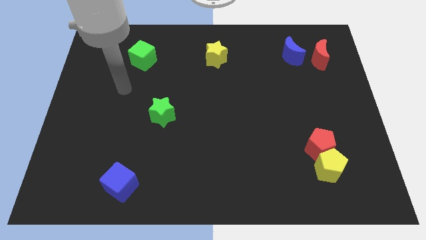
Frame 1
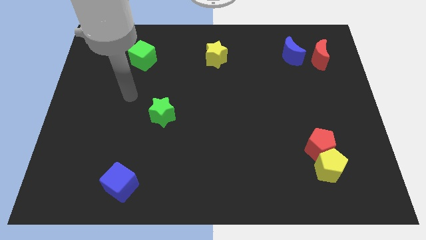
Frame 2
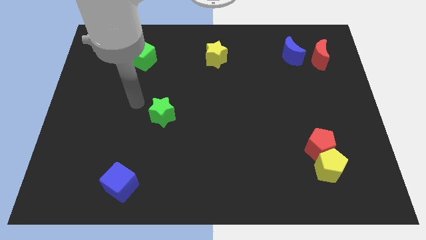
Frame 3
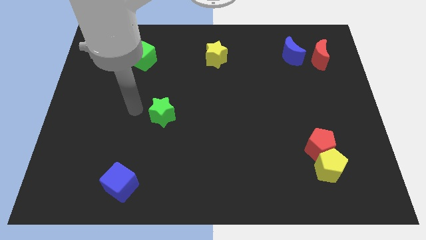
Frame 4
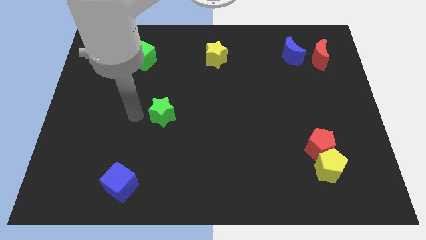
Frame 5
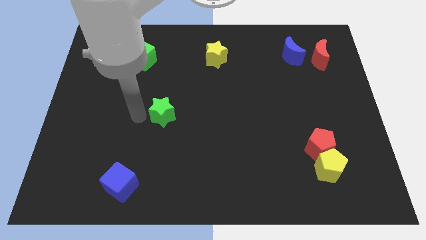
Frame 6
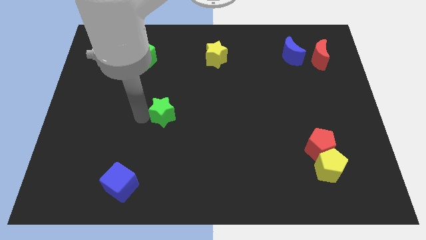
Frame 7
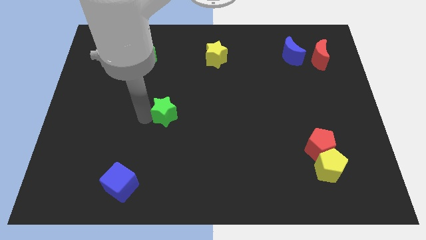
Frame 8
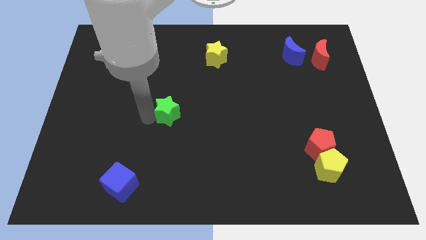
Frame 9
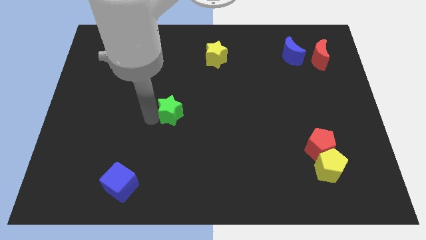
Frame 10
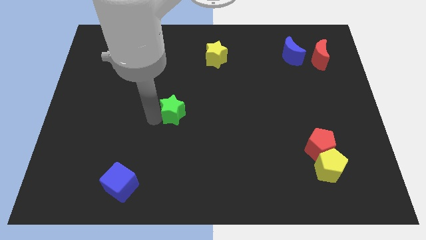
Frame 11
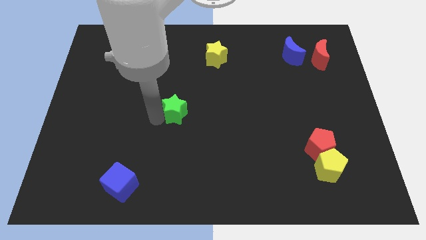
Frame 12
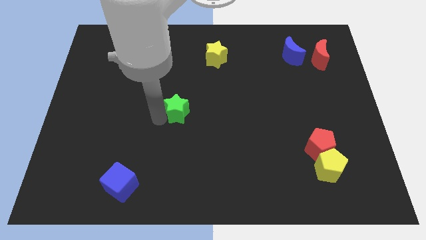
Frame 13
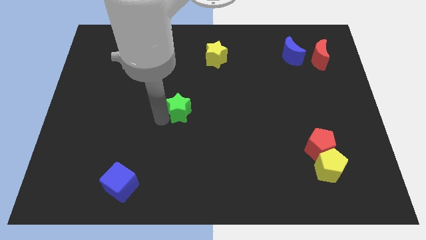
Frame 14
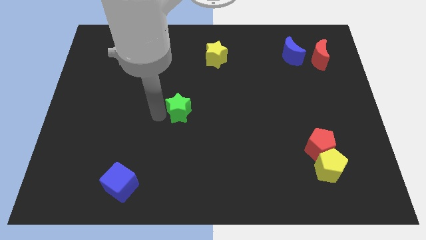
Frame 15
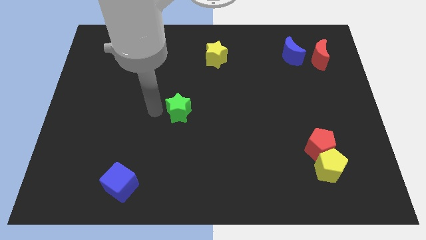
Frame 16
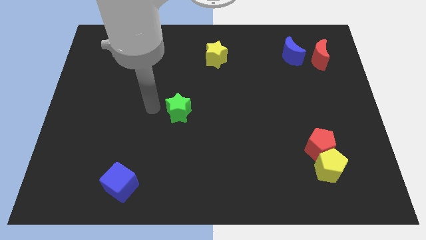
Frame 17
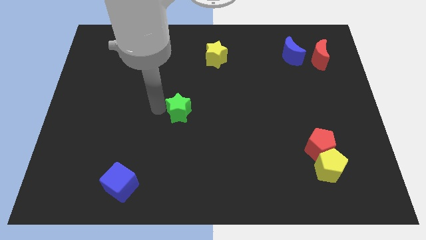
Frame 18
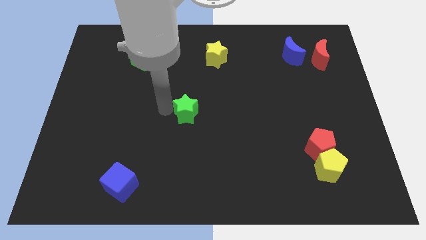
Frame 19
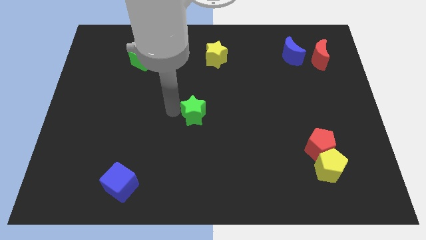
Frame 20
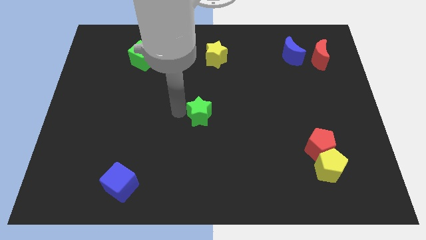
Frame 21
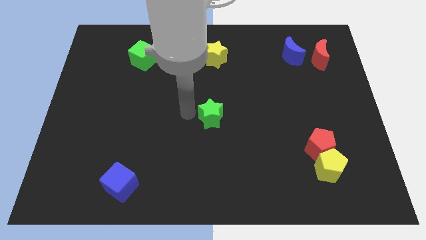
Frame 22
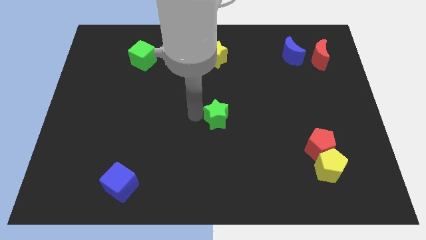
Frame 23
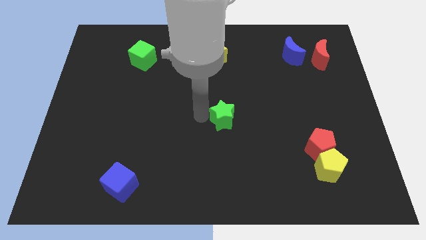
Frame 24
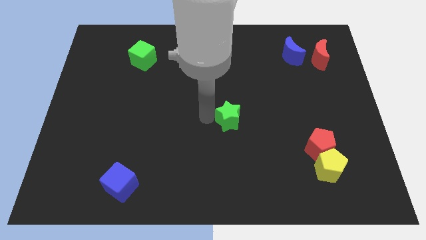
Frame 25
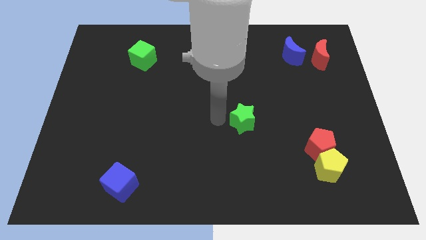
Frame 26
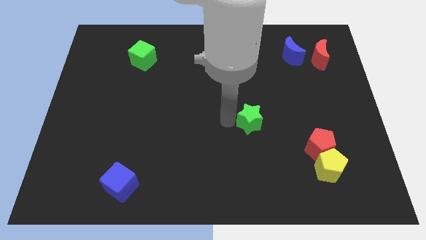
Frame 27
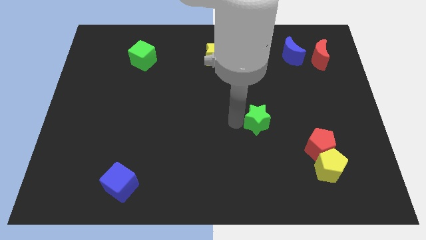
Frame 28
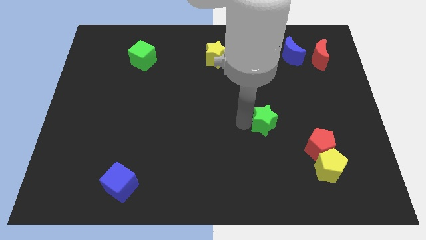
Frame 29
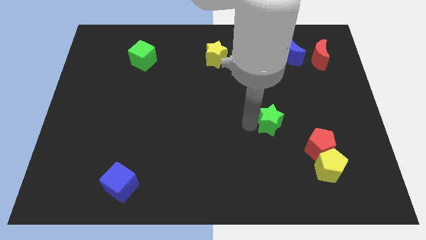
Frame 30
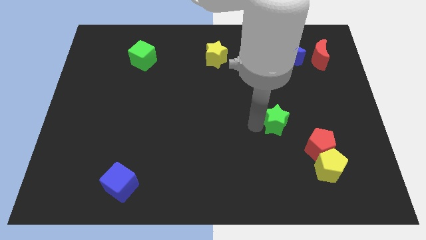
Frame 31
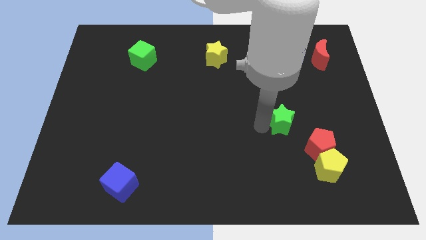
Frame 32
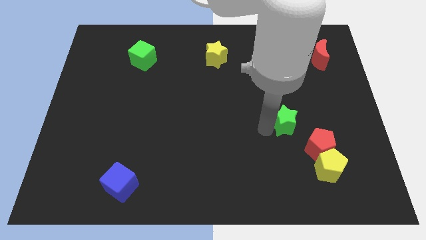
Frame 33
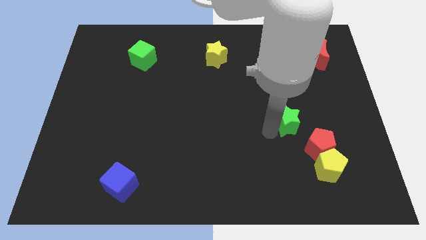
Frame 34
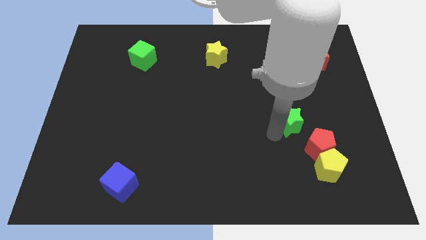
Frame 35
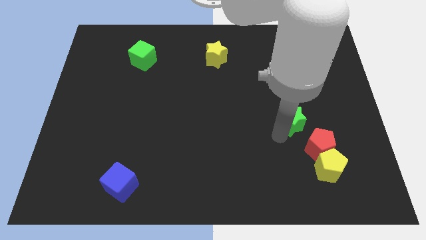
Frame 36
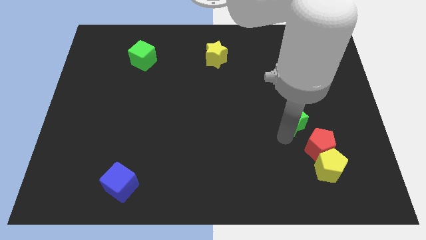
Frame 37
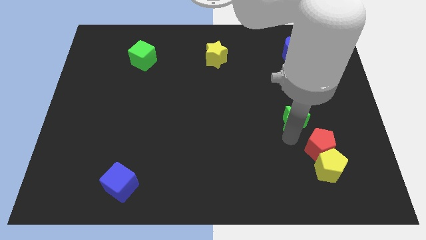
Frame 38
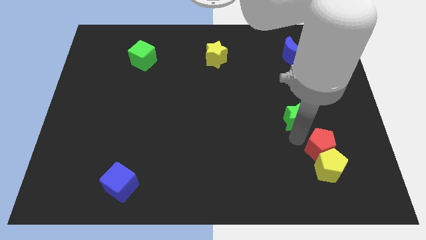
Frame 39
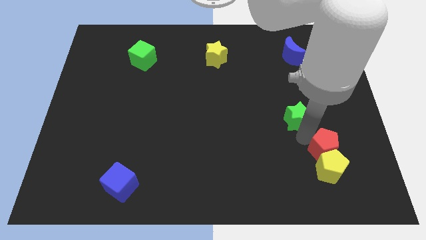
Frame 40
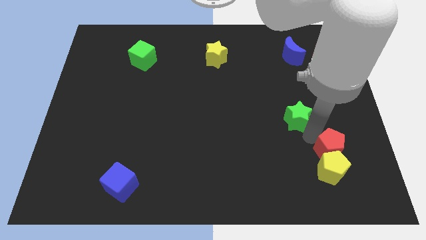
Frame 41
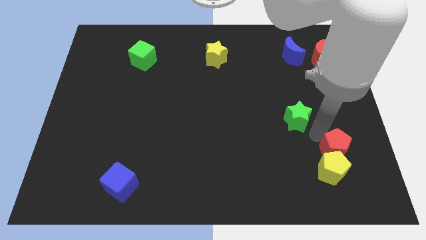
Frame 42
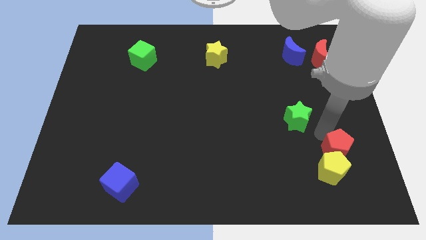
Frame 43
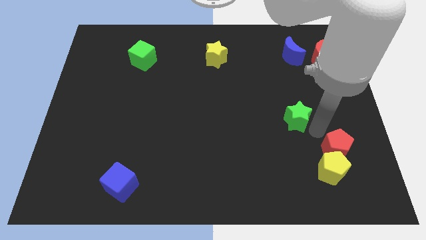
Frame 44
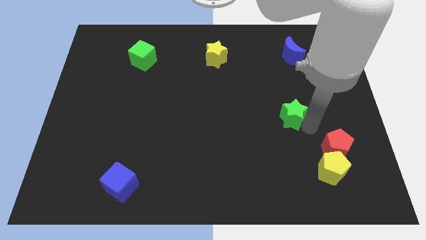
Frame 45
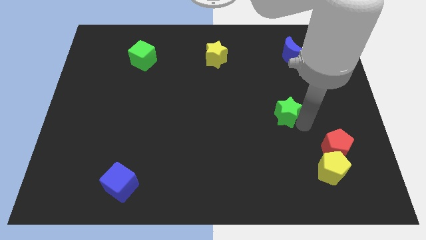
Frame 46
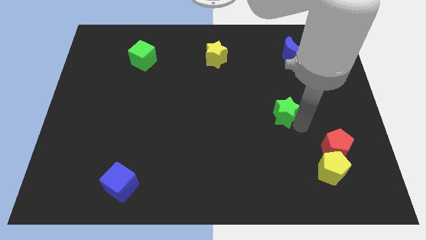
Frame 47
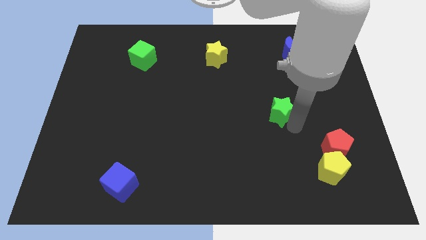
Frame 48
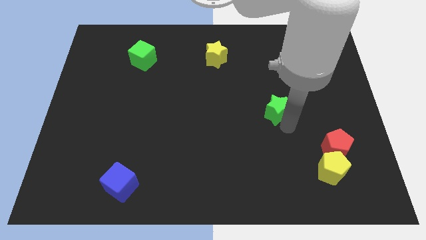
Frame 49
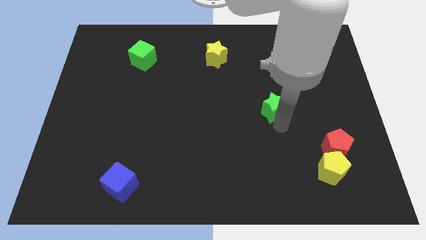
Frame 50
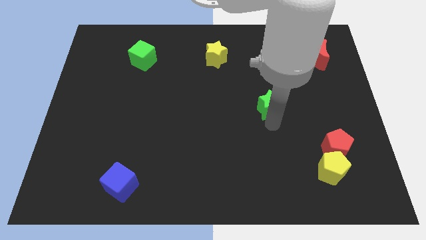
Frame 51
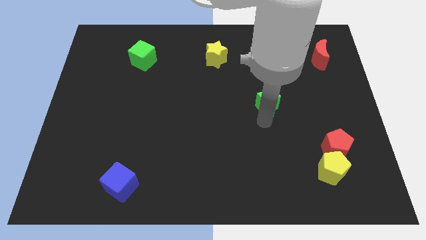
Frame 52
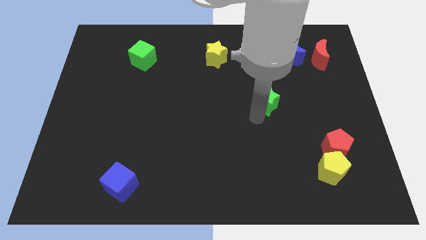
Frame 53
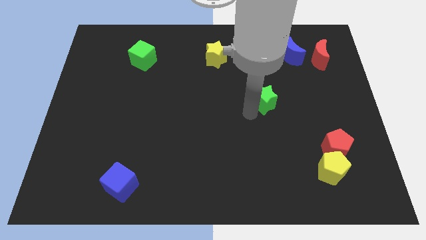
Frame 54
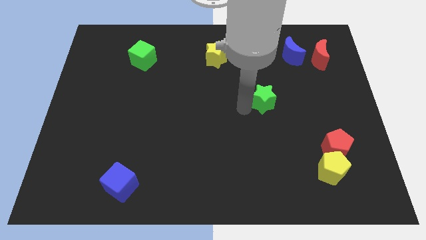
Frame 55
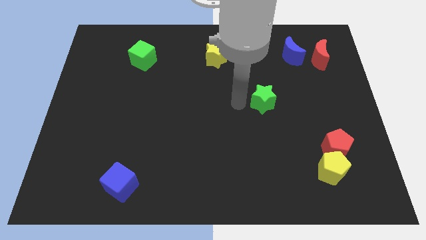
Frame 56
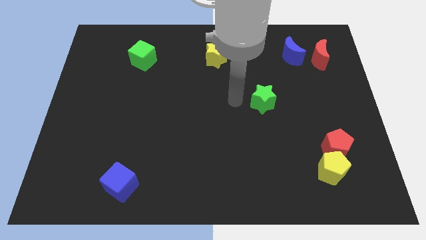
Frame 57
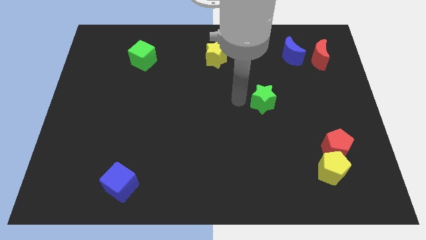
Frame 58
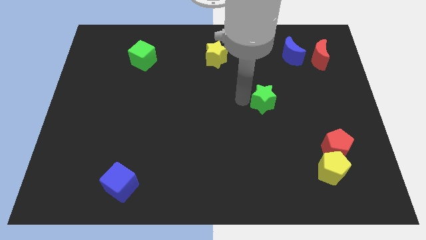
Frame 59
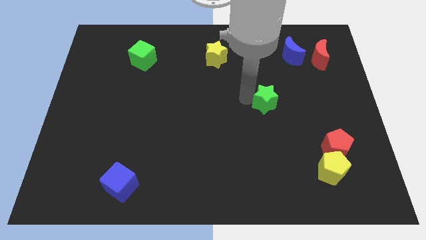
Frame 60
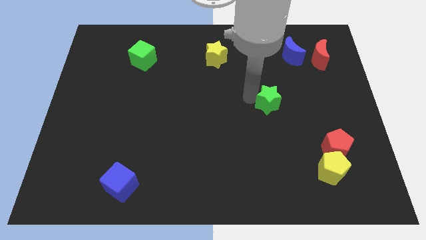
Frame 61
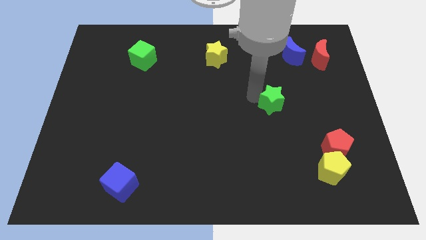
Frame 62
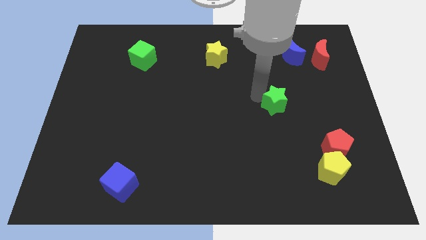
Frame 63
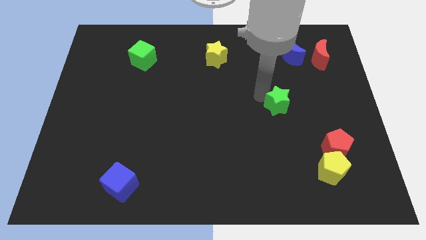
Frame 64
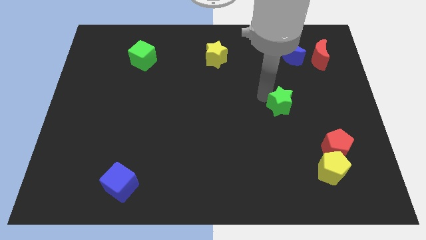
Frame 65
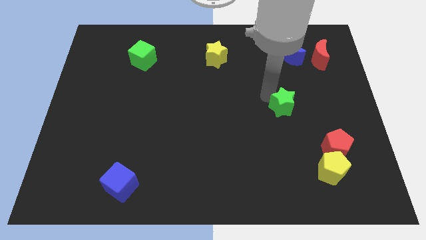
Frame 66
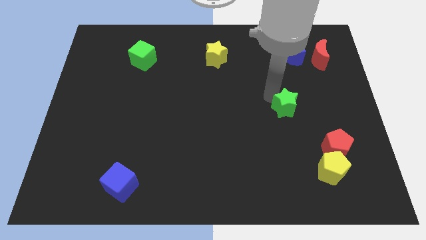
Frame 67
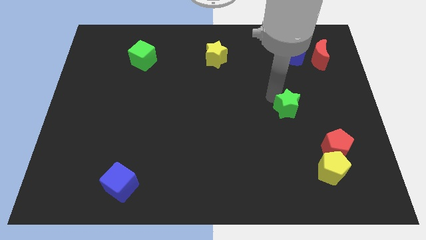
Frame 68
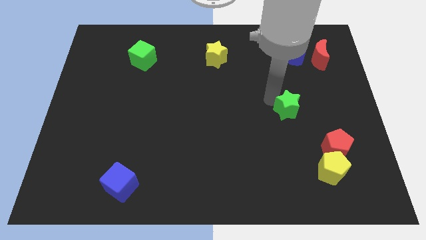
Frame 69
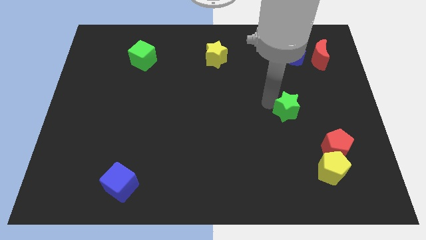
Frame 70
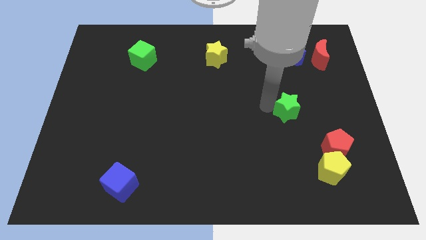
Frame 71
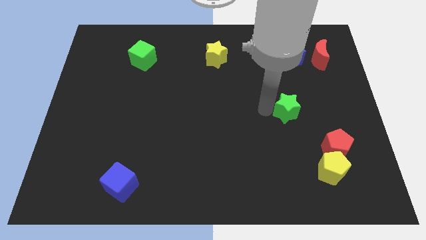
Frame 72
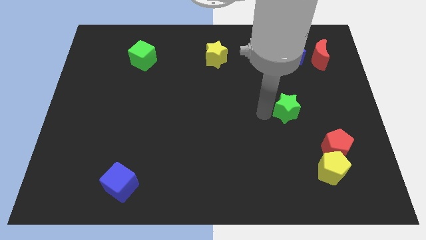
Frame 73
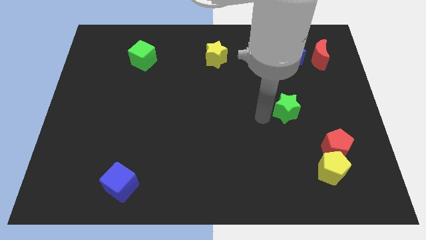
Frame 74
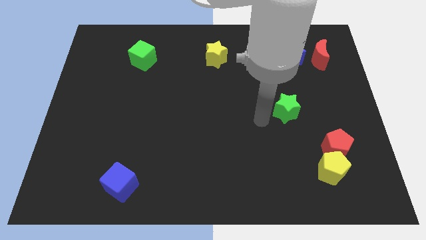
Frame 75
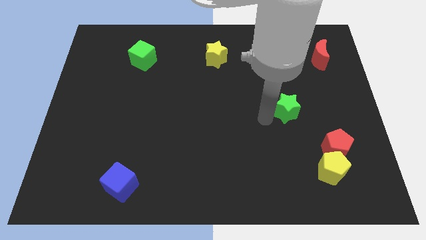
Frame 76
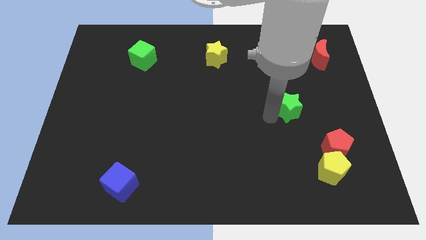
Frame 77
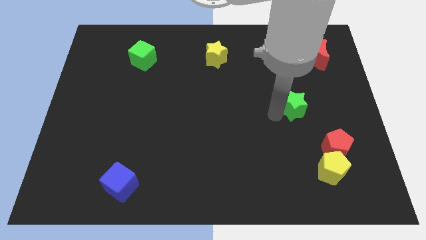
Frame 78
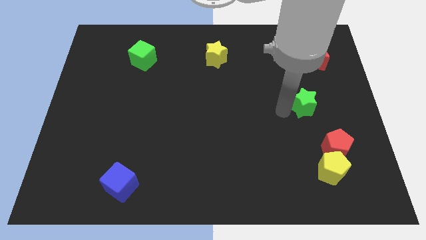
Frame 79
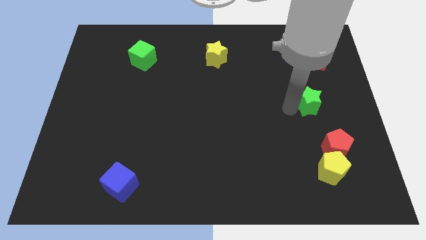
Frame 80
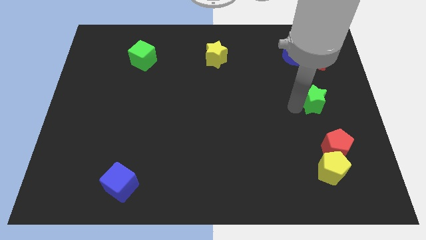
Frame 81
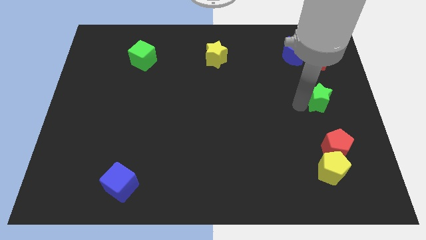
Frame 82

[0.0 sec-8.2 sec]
move the green star to the right side of the board
